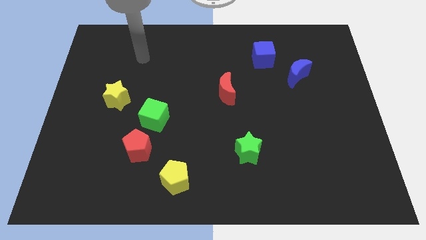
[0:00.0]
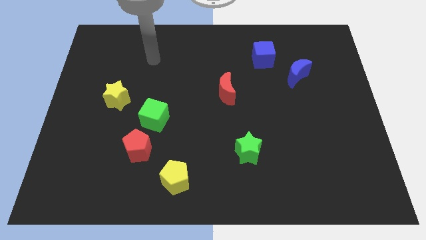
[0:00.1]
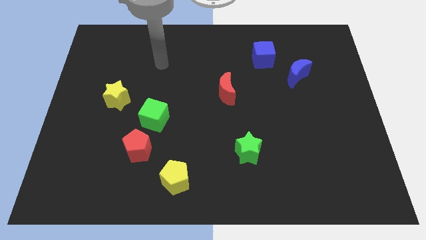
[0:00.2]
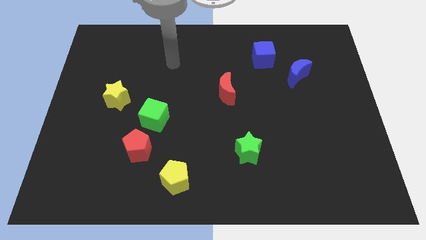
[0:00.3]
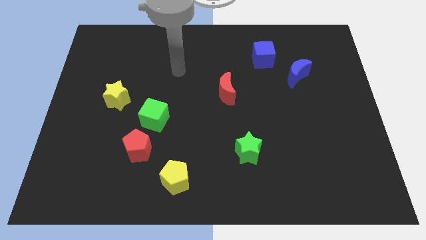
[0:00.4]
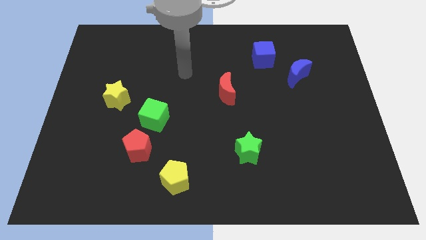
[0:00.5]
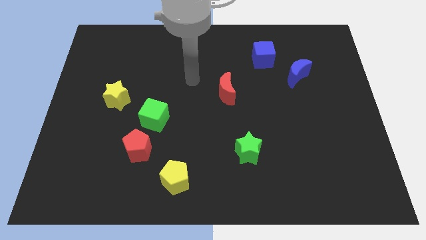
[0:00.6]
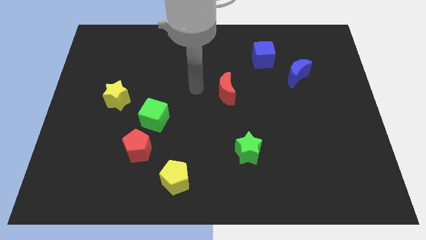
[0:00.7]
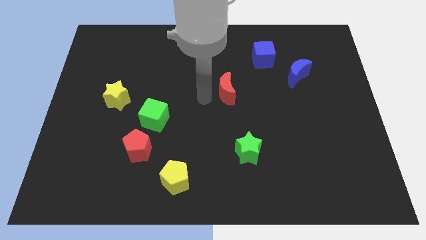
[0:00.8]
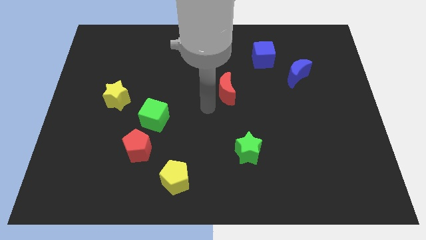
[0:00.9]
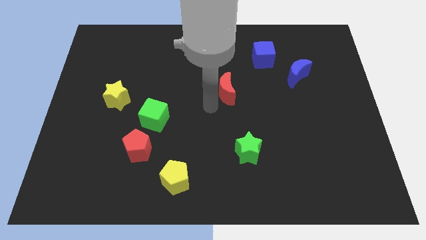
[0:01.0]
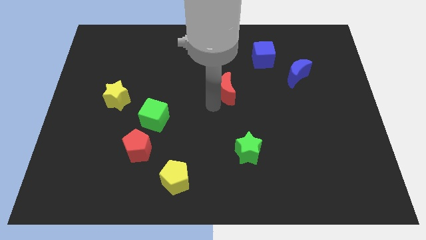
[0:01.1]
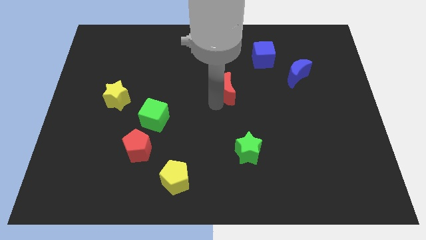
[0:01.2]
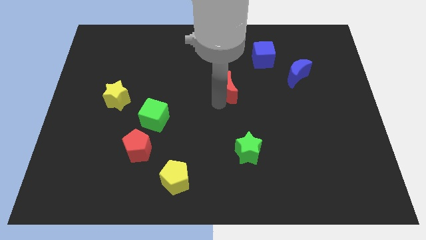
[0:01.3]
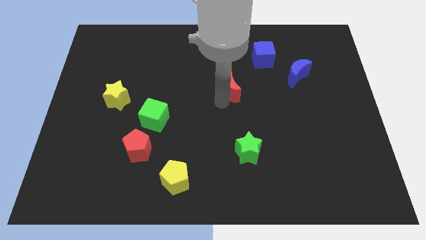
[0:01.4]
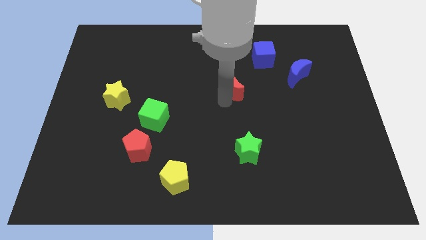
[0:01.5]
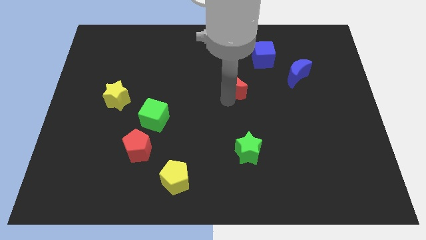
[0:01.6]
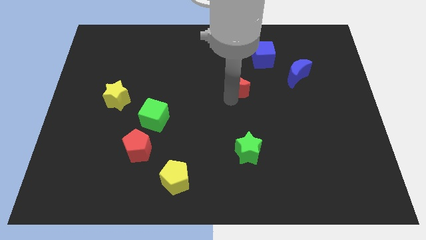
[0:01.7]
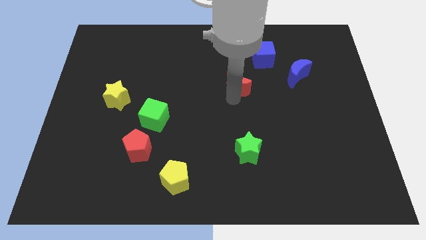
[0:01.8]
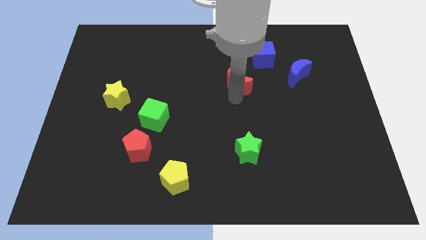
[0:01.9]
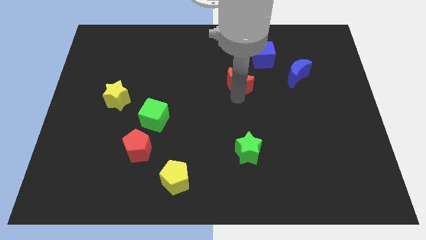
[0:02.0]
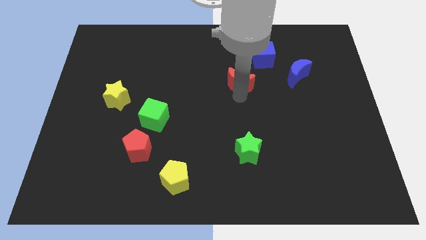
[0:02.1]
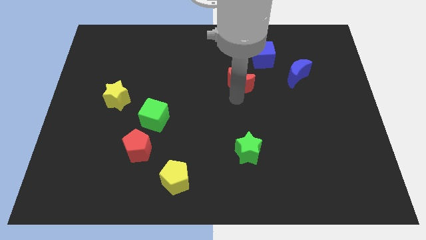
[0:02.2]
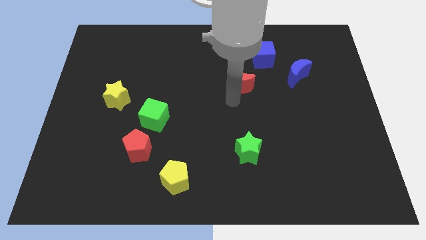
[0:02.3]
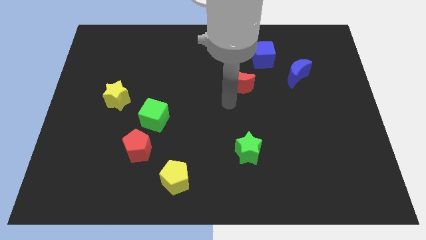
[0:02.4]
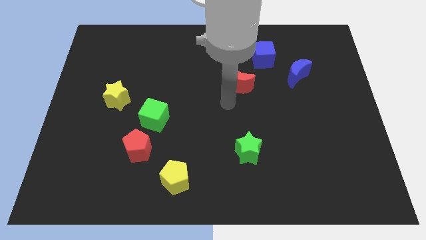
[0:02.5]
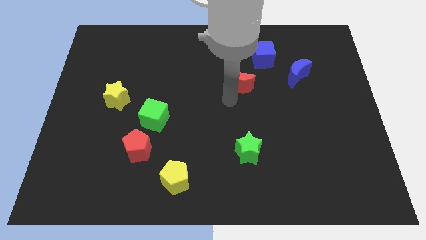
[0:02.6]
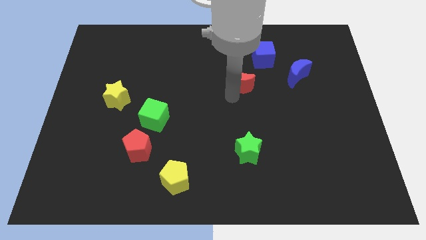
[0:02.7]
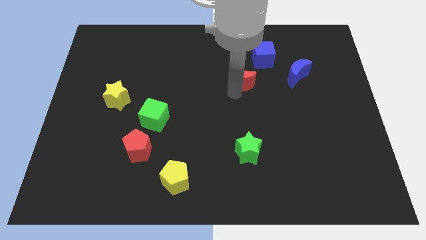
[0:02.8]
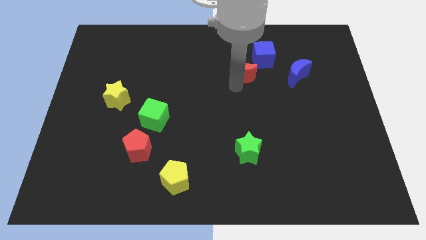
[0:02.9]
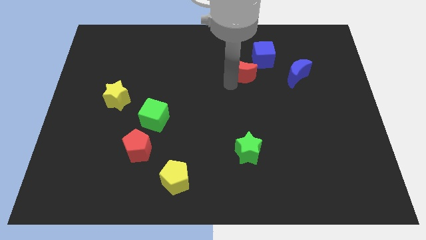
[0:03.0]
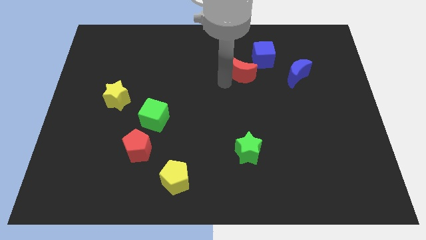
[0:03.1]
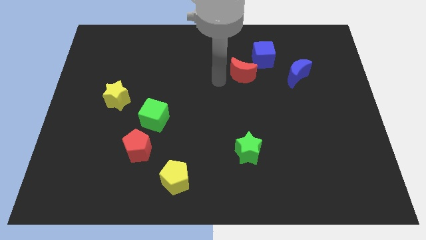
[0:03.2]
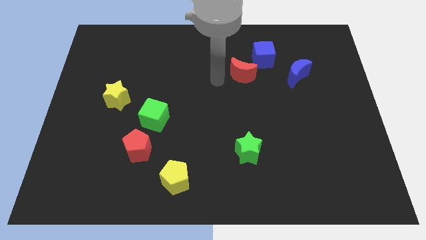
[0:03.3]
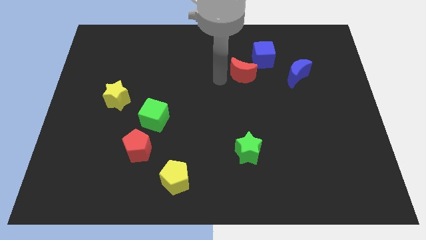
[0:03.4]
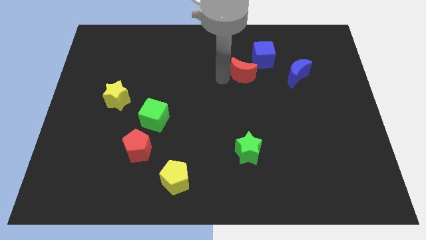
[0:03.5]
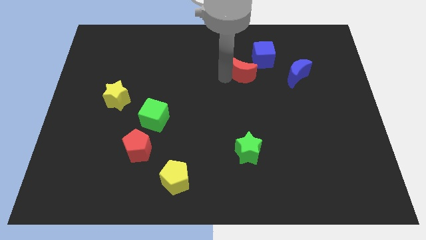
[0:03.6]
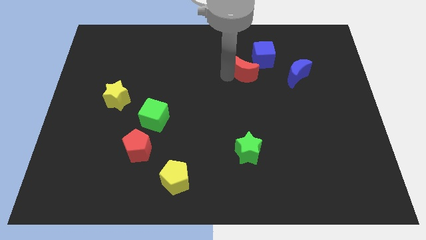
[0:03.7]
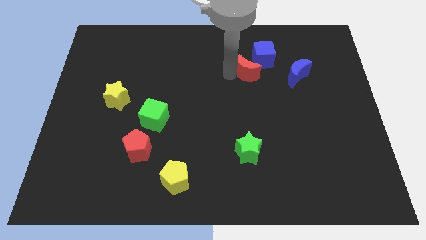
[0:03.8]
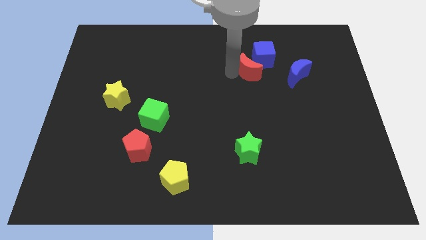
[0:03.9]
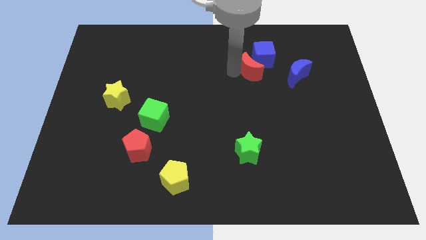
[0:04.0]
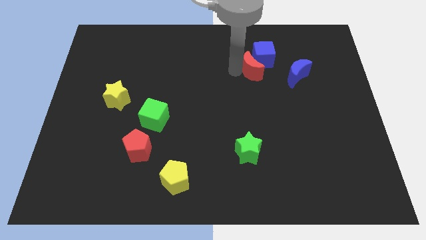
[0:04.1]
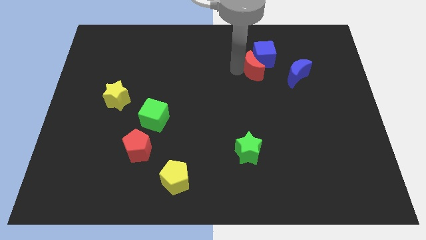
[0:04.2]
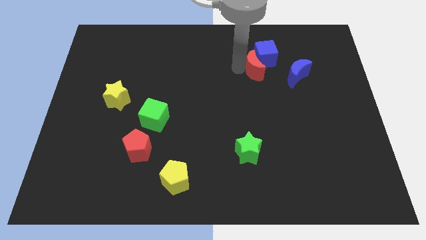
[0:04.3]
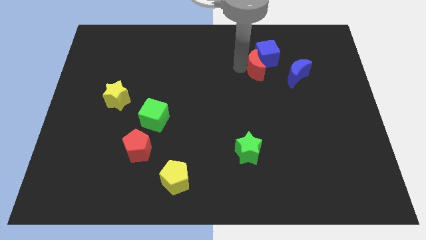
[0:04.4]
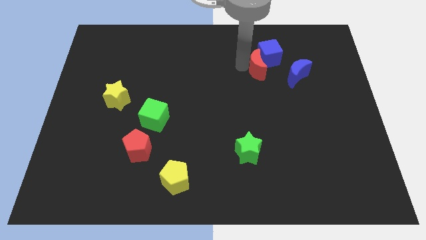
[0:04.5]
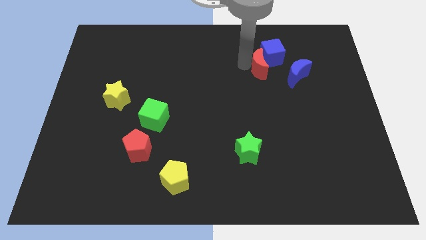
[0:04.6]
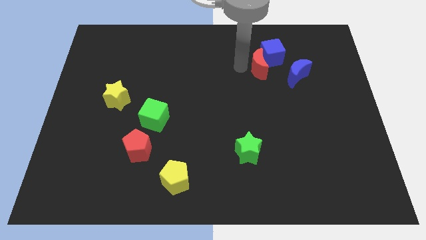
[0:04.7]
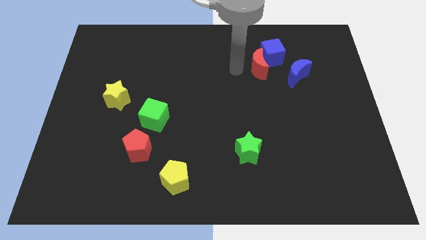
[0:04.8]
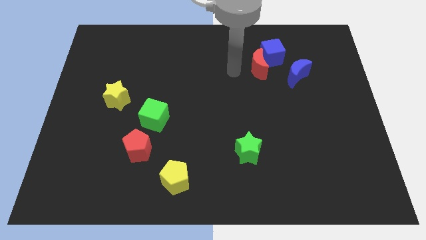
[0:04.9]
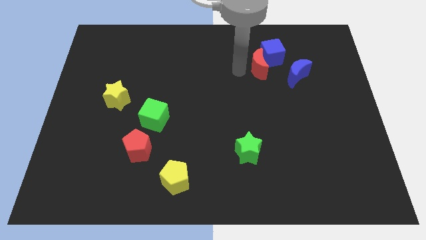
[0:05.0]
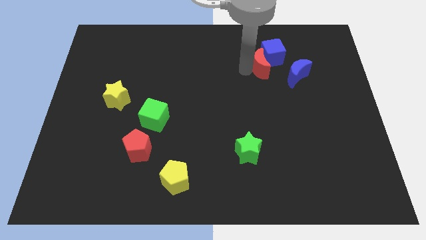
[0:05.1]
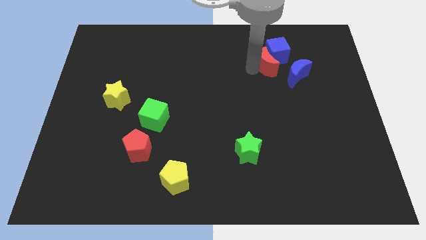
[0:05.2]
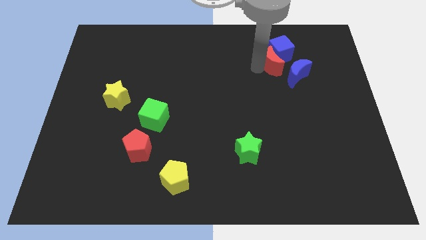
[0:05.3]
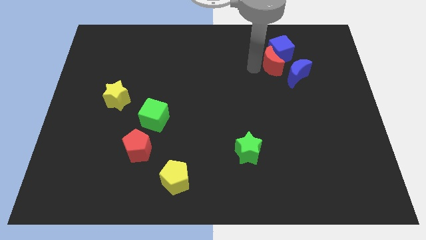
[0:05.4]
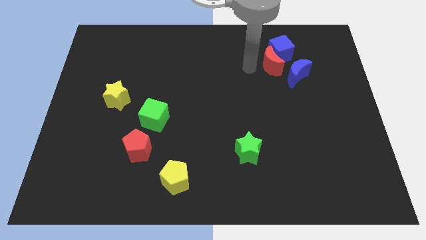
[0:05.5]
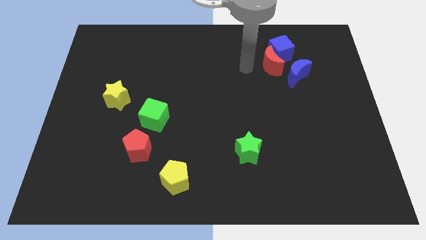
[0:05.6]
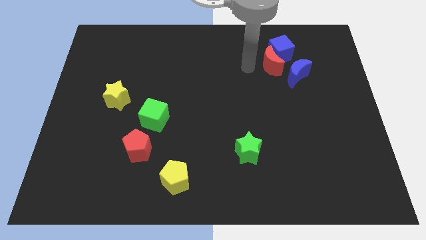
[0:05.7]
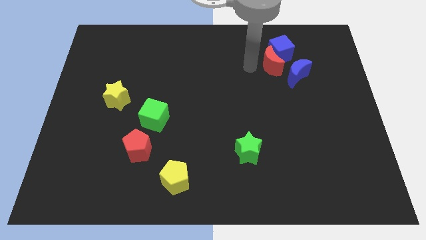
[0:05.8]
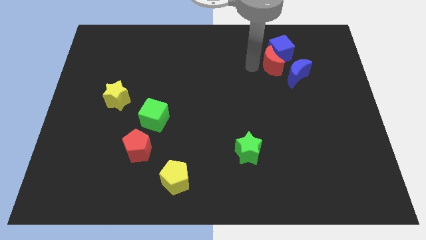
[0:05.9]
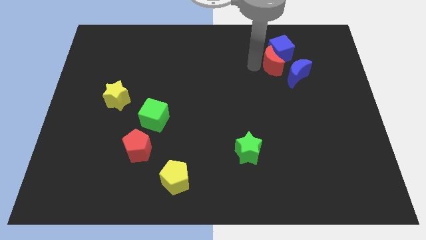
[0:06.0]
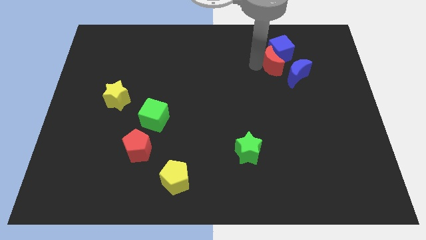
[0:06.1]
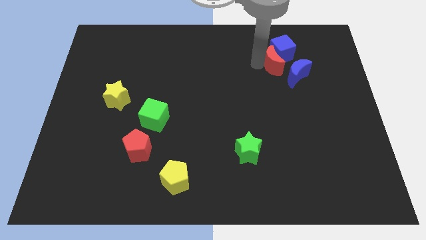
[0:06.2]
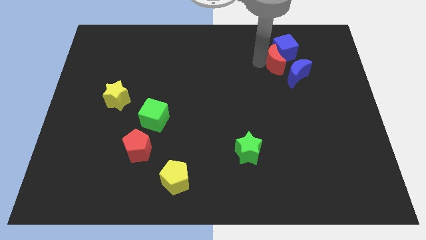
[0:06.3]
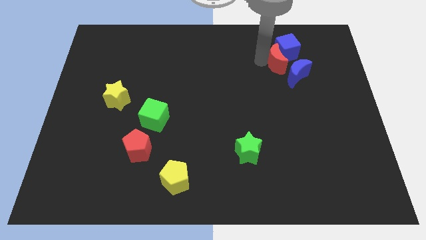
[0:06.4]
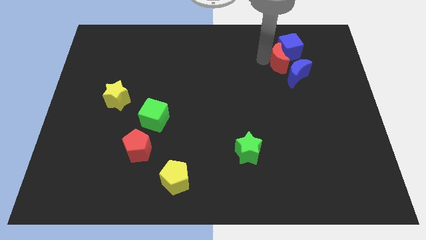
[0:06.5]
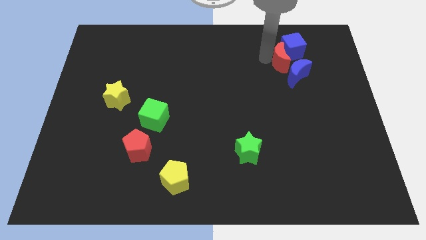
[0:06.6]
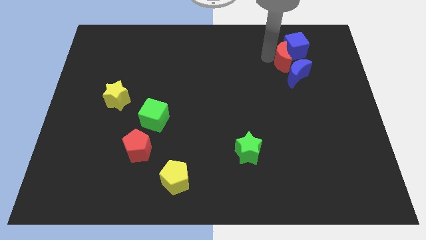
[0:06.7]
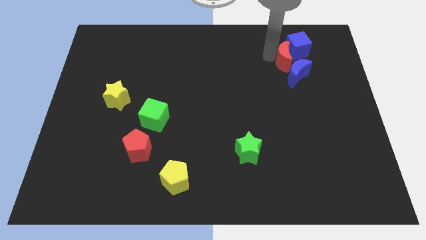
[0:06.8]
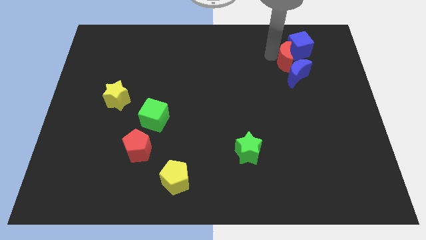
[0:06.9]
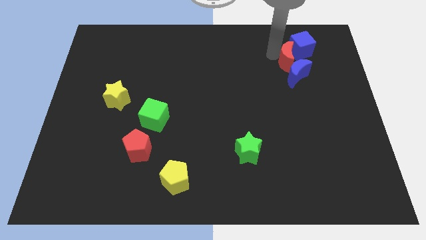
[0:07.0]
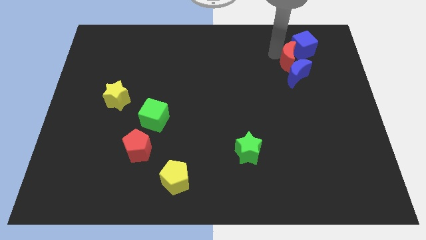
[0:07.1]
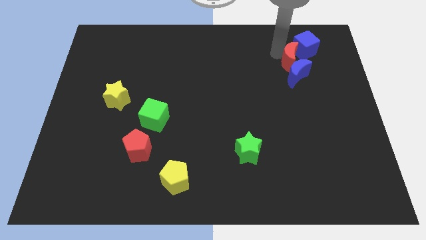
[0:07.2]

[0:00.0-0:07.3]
move the red moon diagonally up and to the right of the blue moon

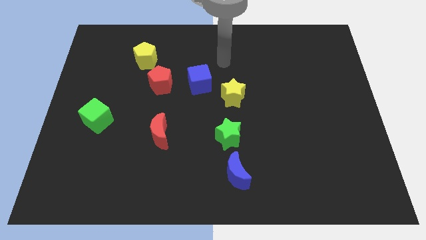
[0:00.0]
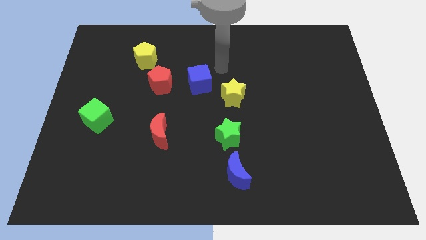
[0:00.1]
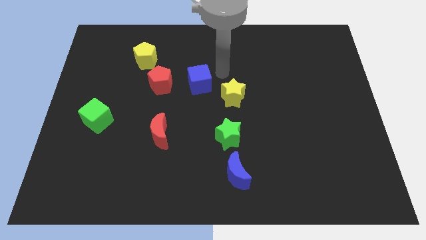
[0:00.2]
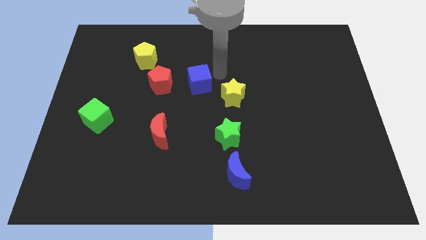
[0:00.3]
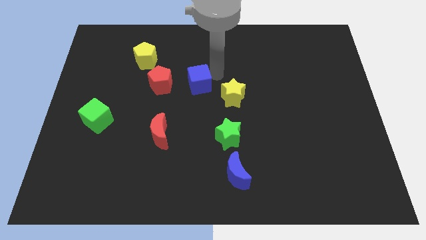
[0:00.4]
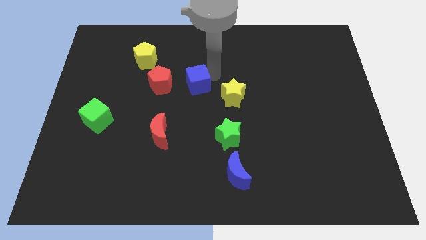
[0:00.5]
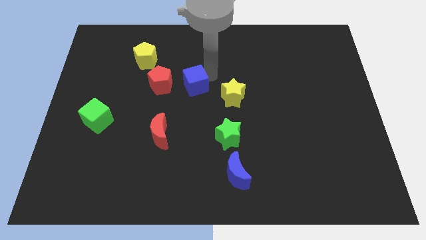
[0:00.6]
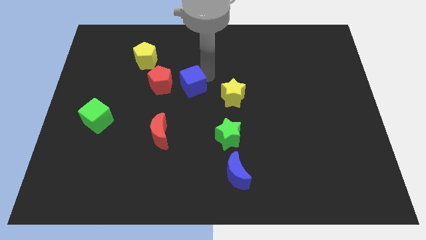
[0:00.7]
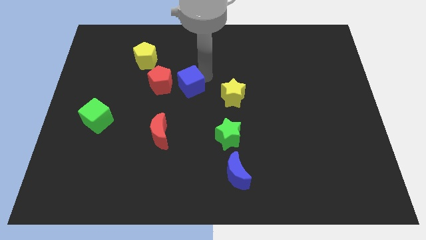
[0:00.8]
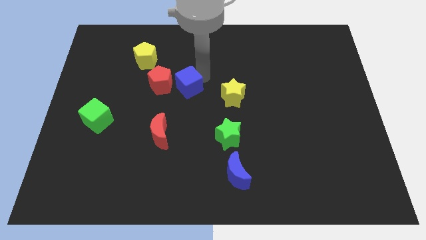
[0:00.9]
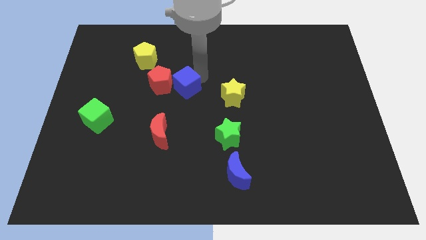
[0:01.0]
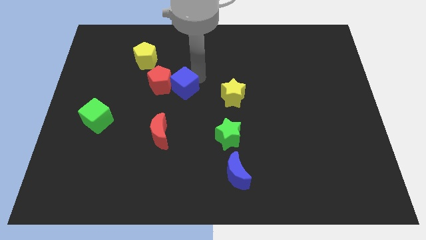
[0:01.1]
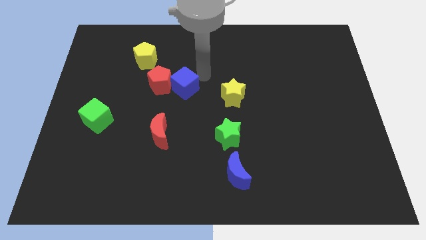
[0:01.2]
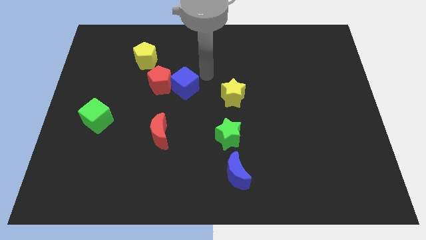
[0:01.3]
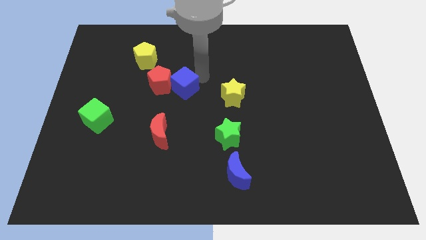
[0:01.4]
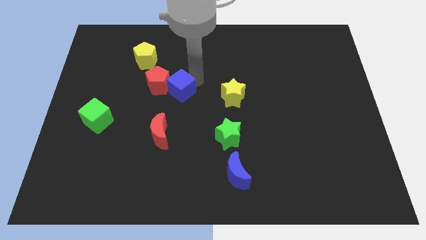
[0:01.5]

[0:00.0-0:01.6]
slide the blue cube to the top of the red moon
